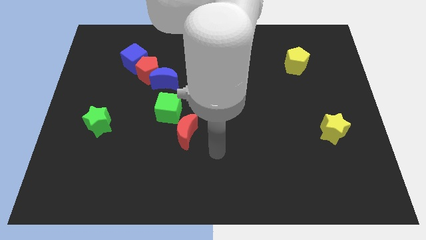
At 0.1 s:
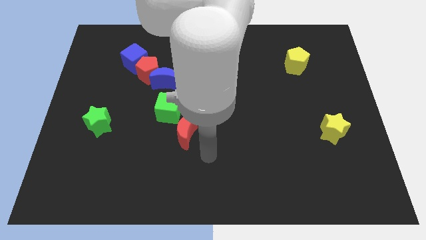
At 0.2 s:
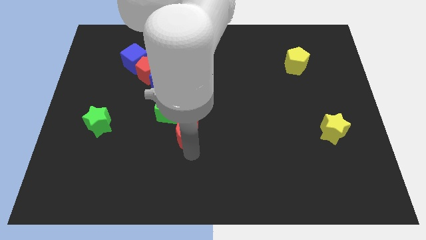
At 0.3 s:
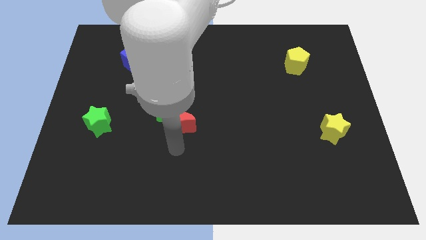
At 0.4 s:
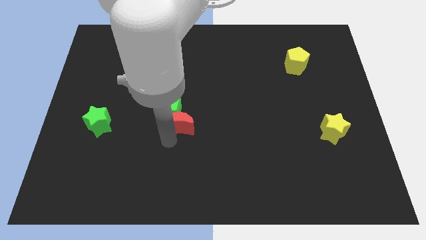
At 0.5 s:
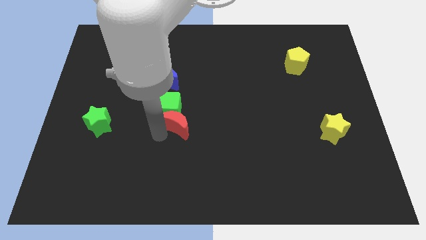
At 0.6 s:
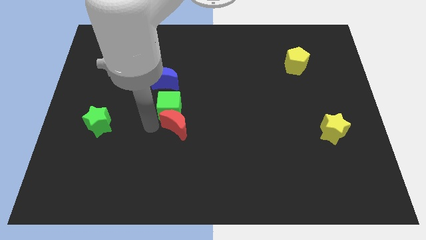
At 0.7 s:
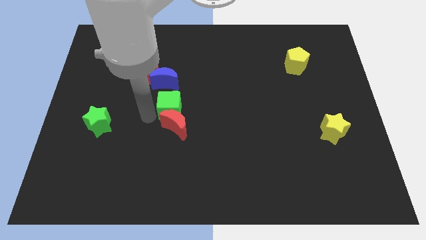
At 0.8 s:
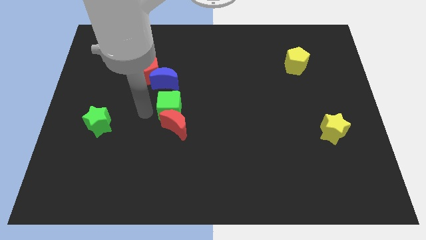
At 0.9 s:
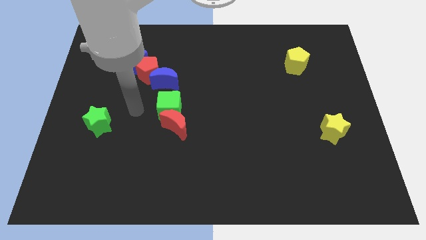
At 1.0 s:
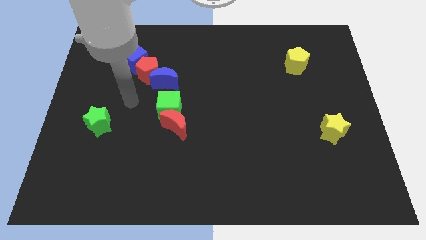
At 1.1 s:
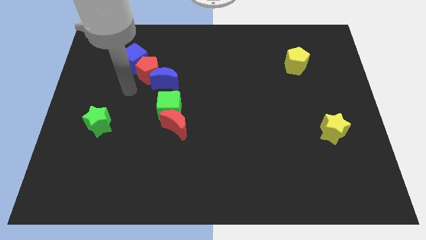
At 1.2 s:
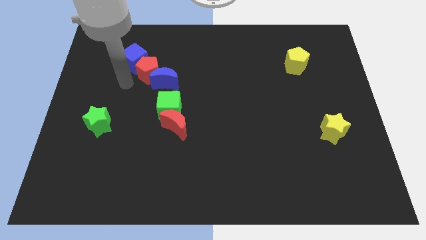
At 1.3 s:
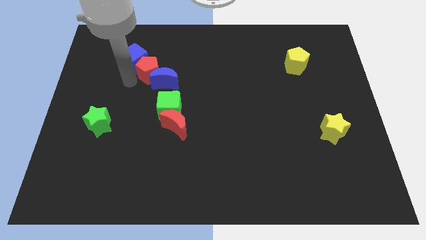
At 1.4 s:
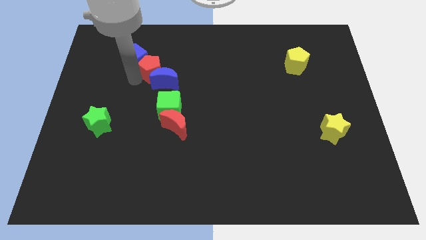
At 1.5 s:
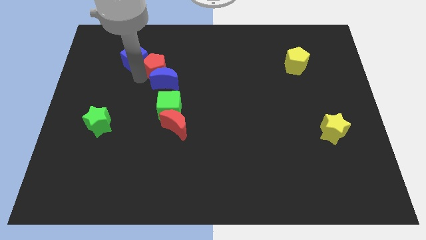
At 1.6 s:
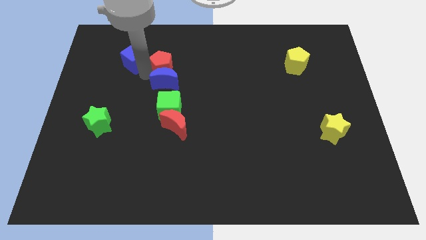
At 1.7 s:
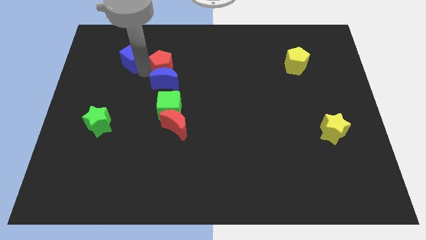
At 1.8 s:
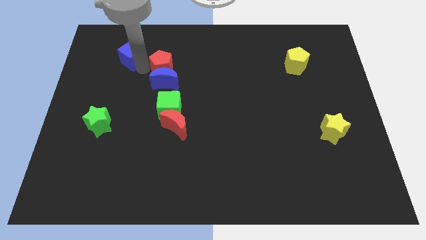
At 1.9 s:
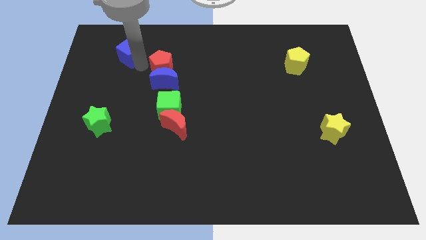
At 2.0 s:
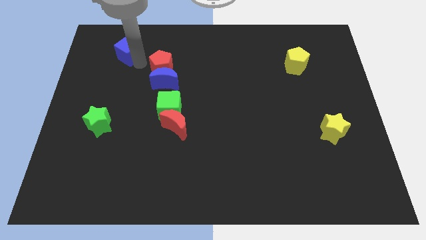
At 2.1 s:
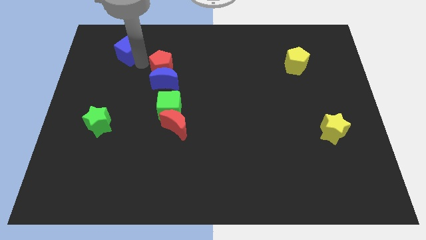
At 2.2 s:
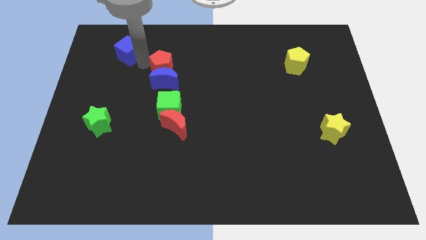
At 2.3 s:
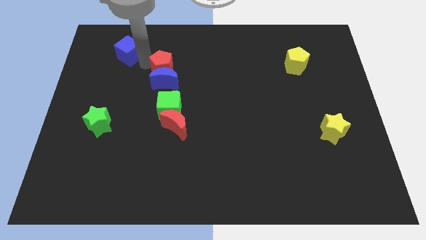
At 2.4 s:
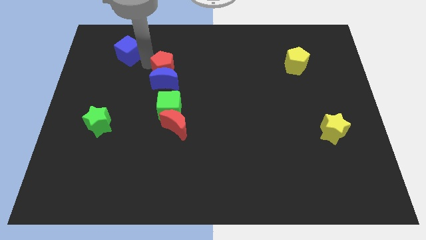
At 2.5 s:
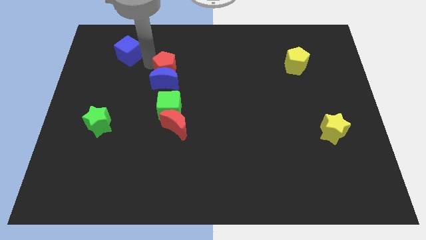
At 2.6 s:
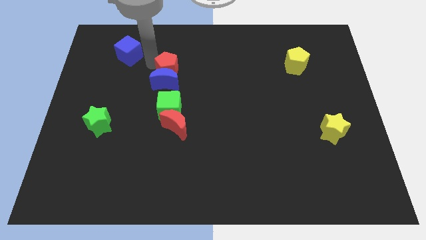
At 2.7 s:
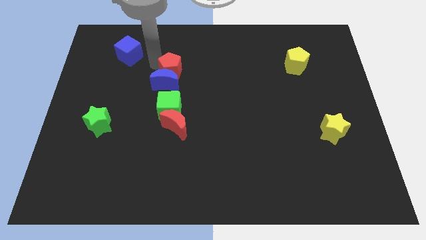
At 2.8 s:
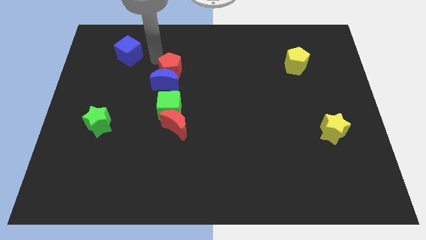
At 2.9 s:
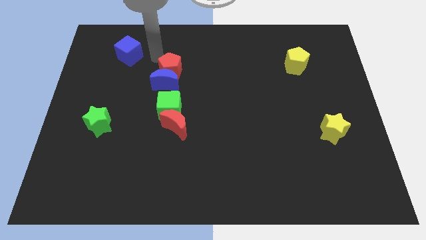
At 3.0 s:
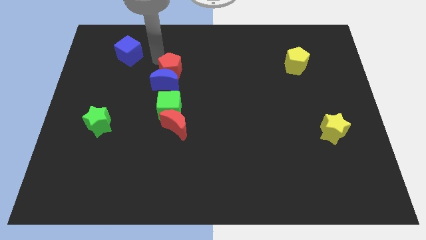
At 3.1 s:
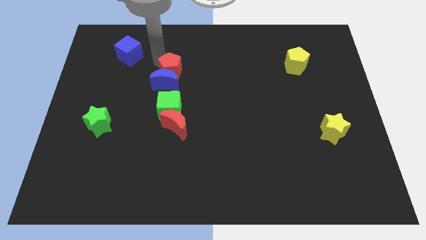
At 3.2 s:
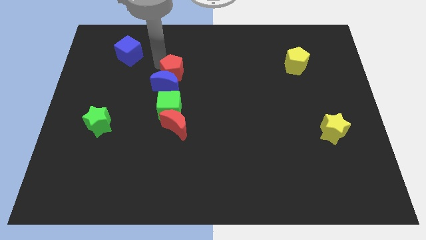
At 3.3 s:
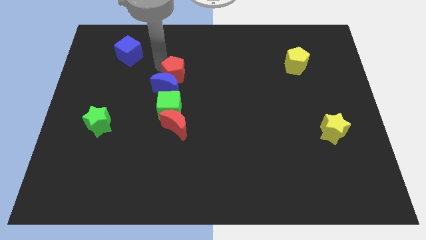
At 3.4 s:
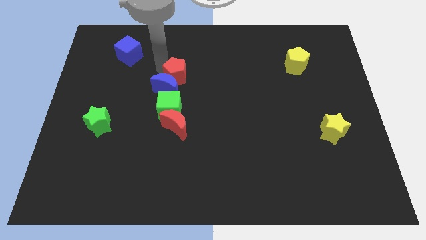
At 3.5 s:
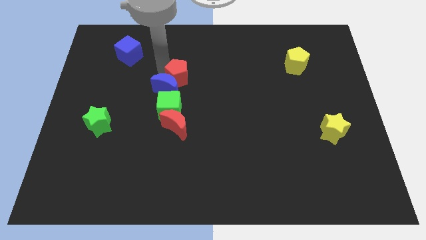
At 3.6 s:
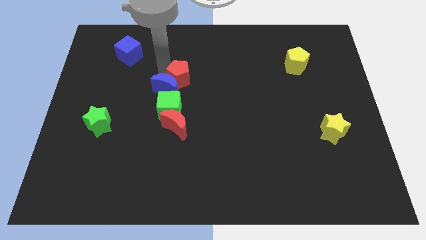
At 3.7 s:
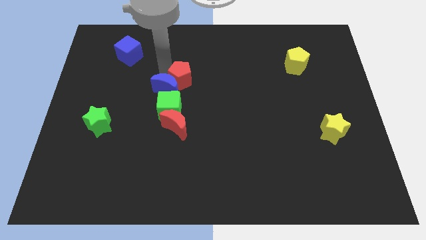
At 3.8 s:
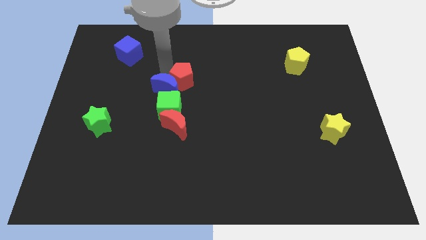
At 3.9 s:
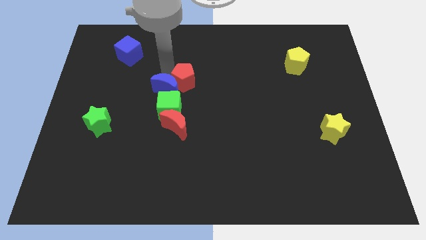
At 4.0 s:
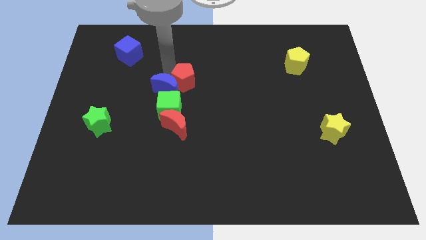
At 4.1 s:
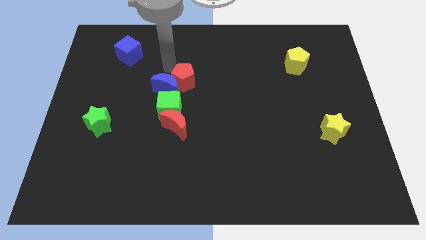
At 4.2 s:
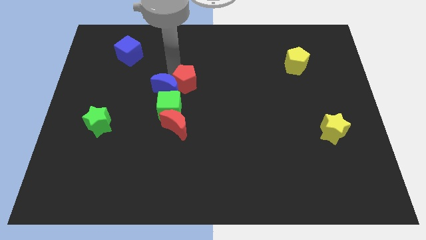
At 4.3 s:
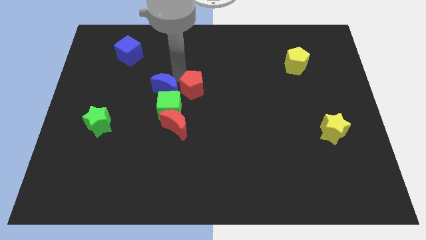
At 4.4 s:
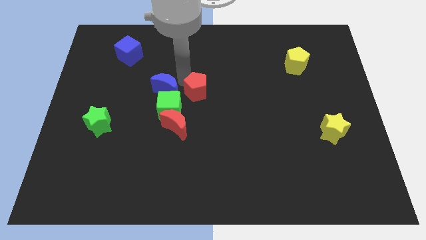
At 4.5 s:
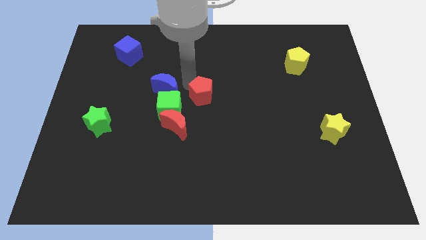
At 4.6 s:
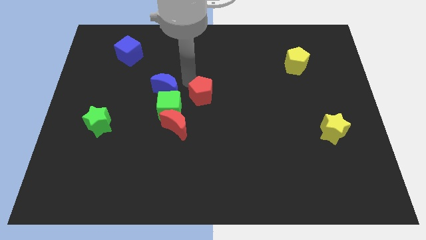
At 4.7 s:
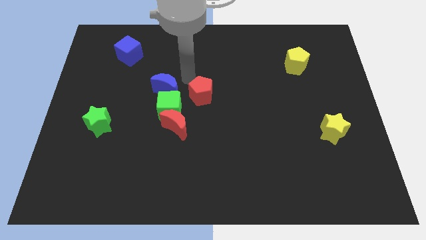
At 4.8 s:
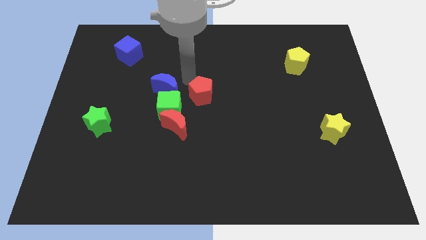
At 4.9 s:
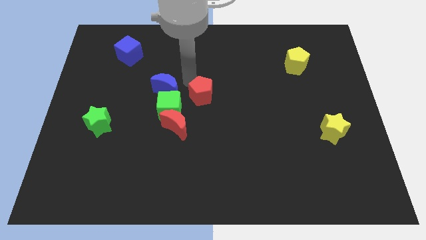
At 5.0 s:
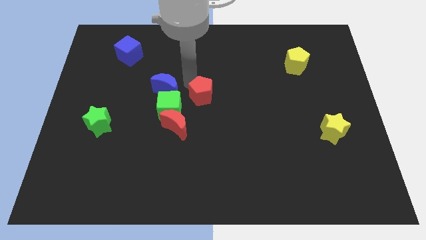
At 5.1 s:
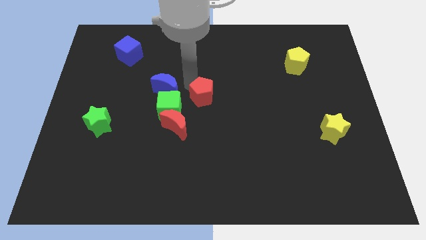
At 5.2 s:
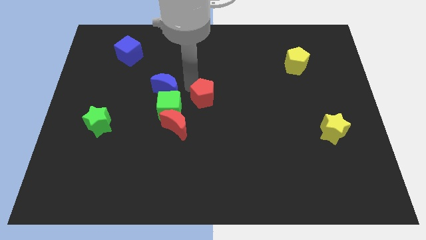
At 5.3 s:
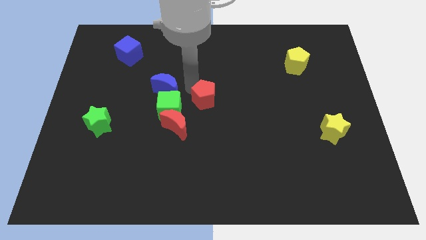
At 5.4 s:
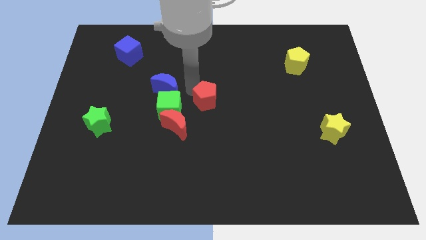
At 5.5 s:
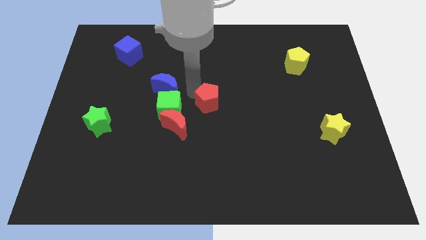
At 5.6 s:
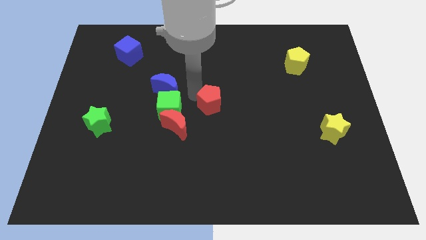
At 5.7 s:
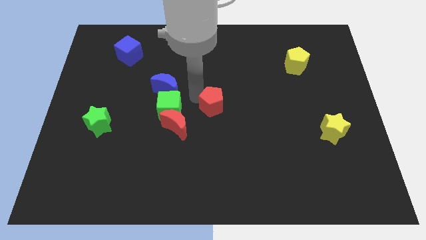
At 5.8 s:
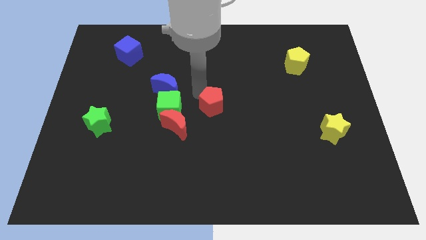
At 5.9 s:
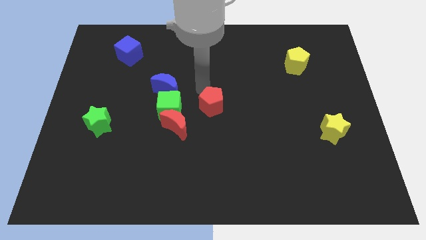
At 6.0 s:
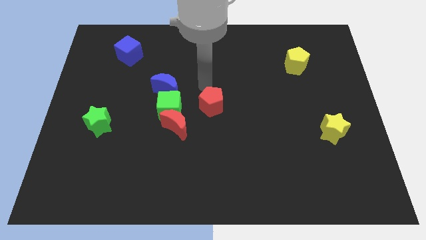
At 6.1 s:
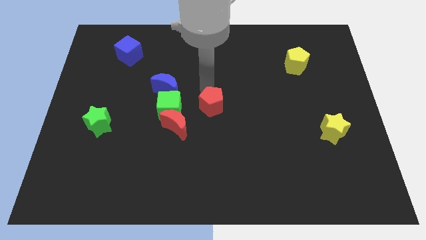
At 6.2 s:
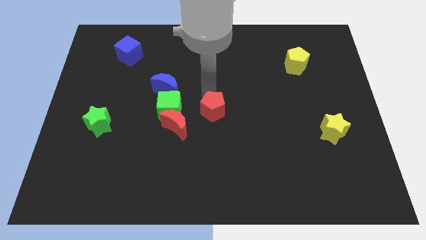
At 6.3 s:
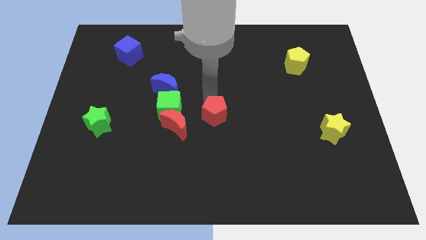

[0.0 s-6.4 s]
move the red pentagon diagonally down and to the right

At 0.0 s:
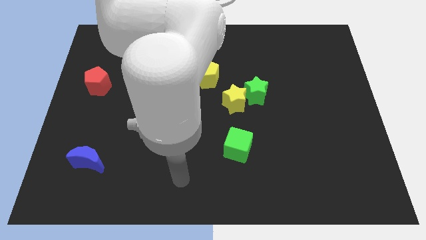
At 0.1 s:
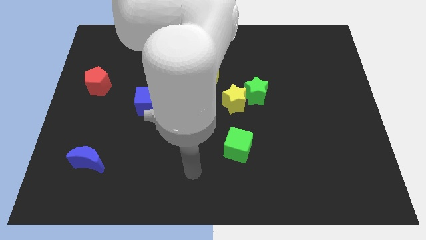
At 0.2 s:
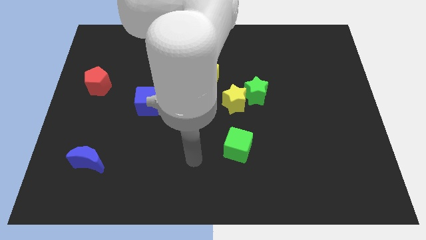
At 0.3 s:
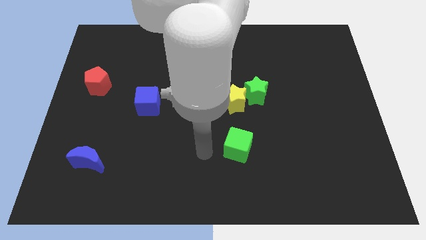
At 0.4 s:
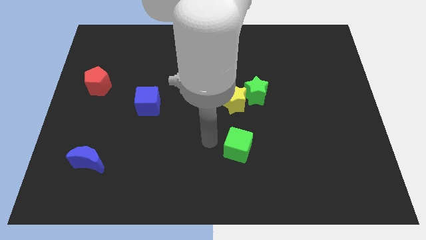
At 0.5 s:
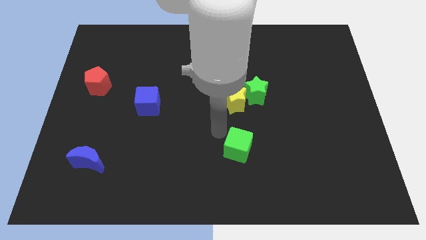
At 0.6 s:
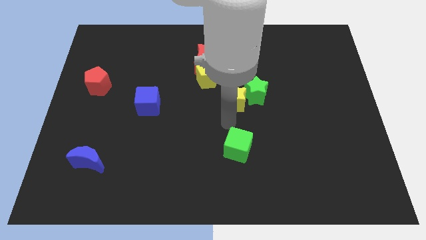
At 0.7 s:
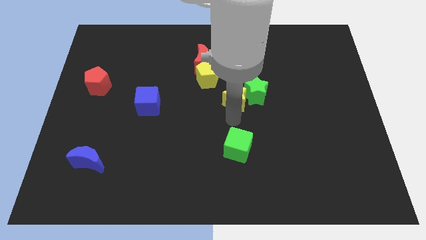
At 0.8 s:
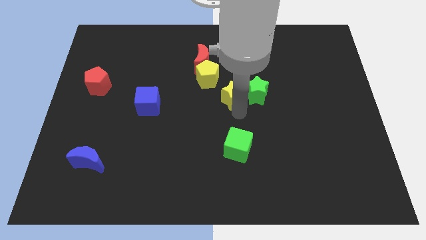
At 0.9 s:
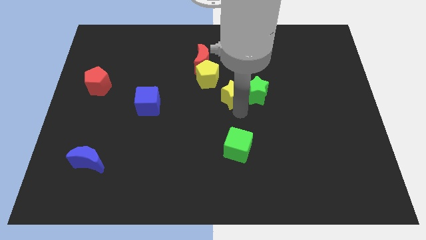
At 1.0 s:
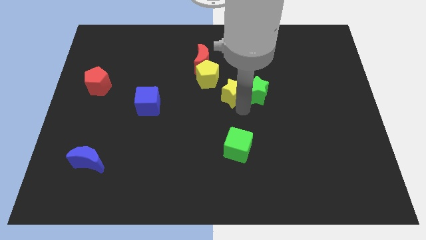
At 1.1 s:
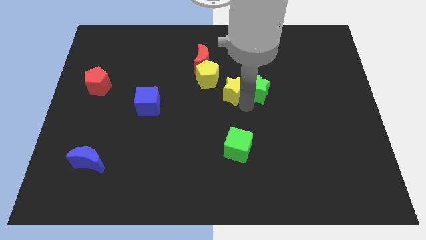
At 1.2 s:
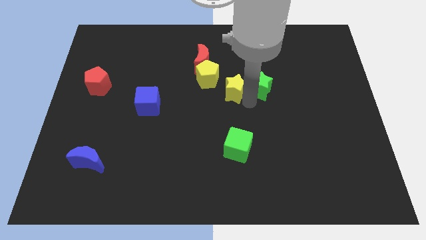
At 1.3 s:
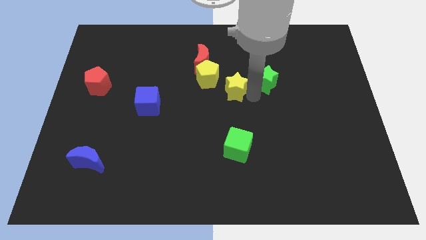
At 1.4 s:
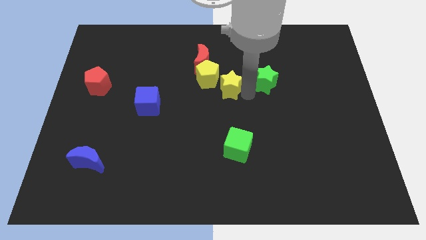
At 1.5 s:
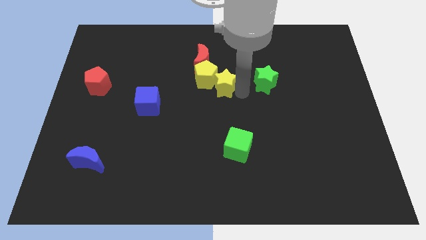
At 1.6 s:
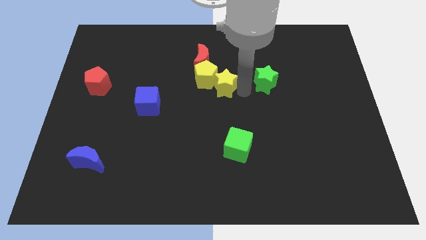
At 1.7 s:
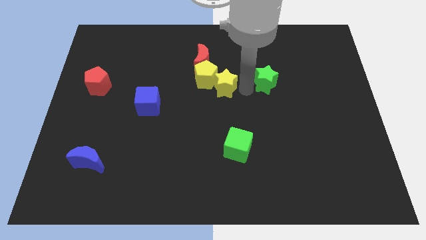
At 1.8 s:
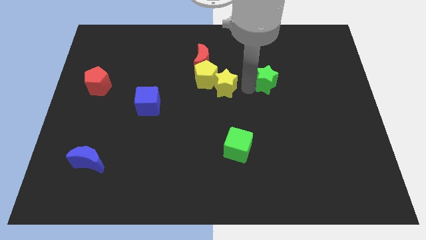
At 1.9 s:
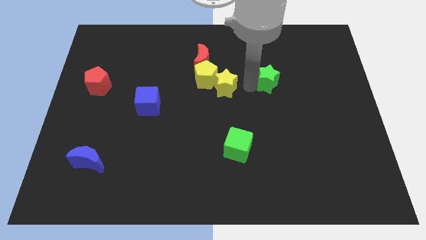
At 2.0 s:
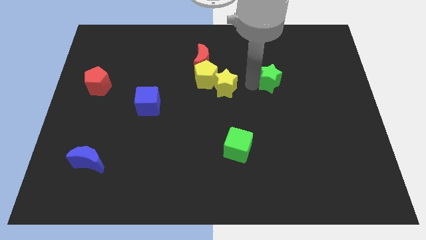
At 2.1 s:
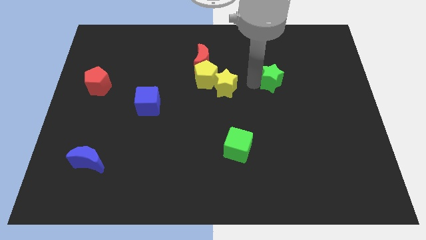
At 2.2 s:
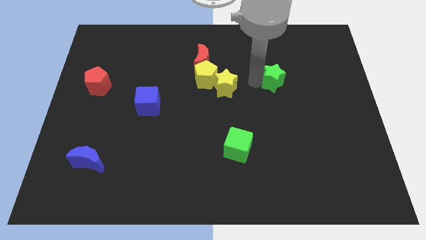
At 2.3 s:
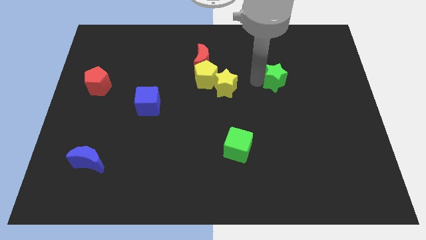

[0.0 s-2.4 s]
move the green star a bit up and to the right
